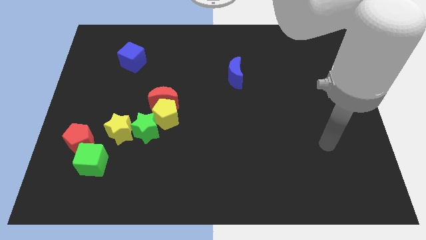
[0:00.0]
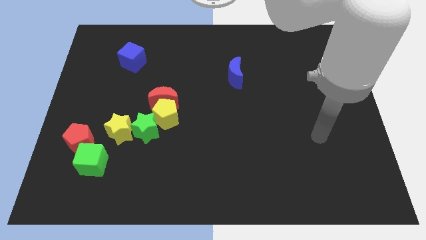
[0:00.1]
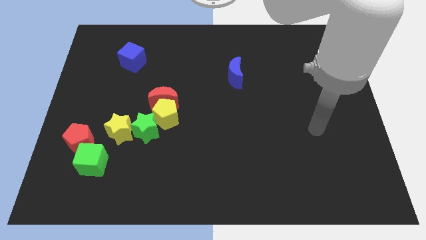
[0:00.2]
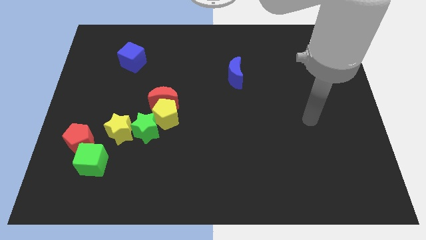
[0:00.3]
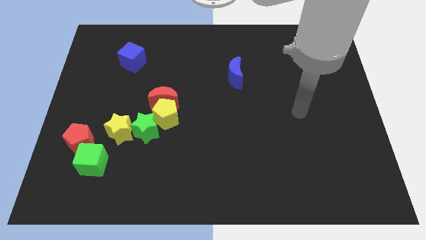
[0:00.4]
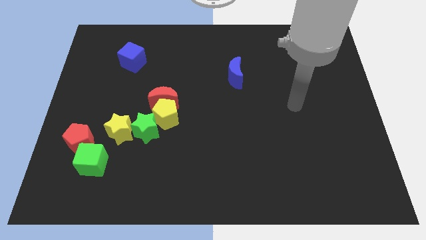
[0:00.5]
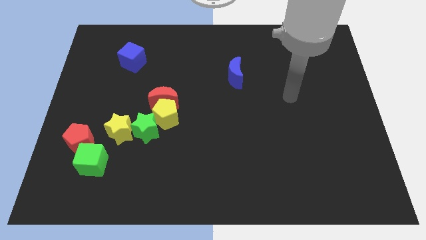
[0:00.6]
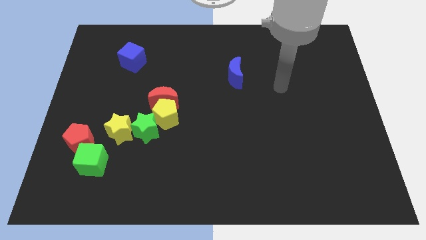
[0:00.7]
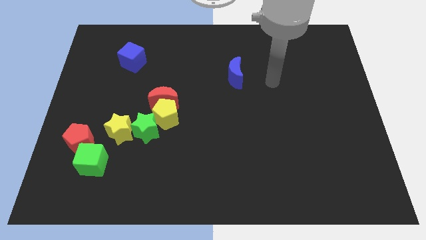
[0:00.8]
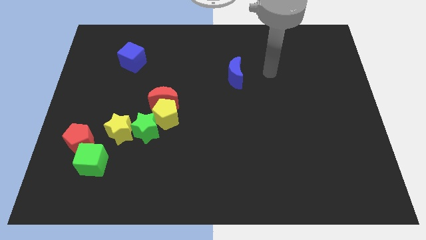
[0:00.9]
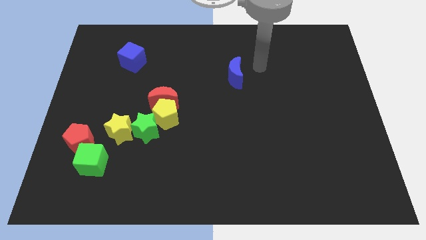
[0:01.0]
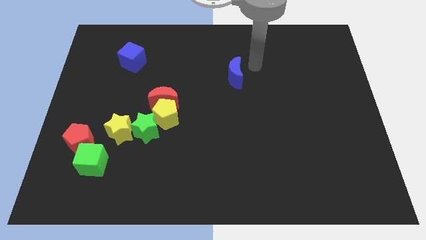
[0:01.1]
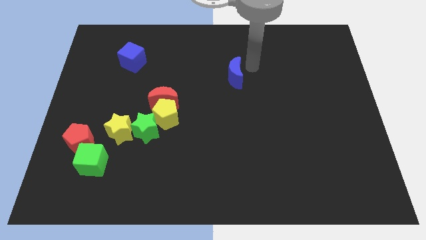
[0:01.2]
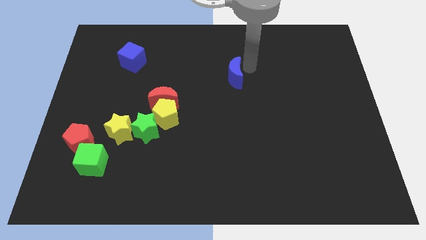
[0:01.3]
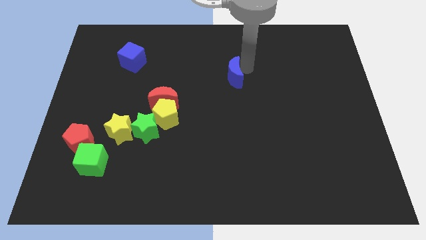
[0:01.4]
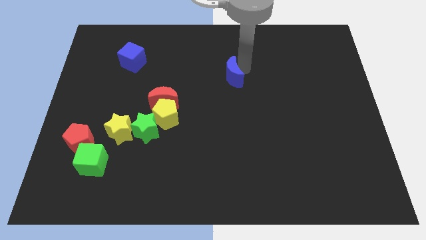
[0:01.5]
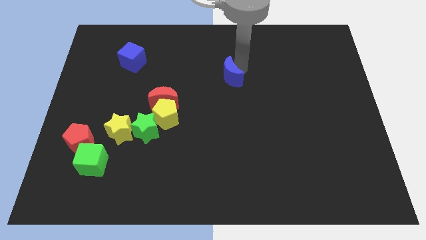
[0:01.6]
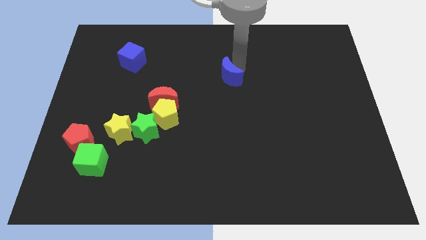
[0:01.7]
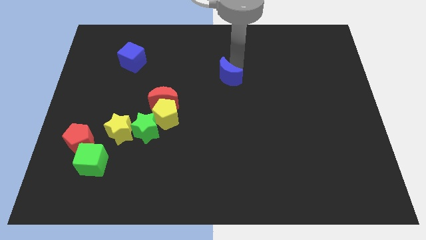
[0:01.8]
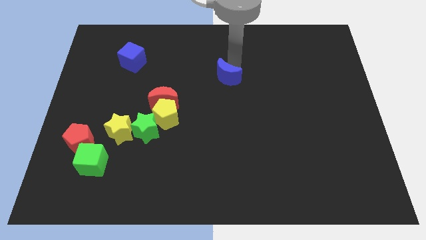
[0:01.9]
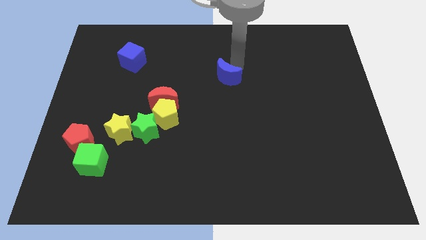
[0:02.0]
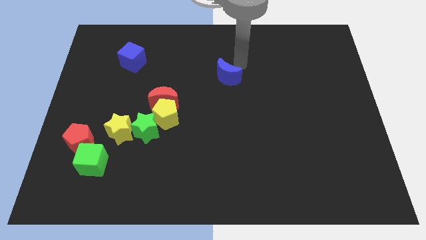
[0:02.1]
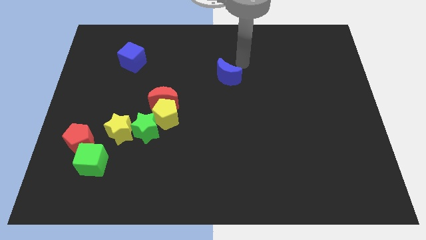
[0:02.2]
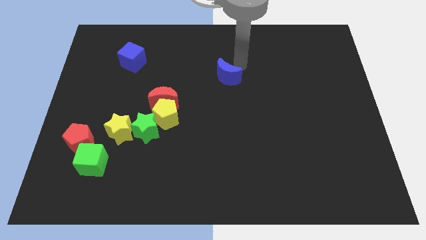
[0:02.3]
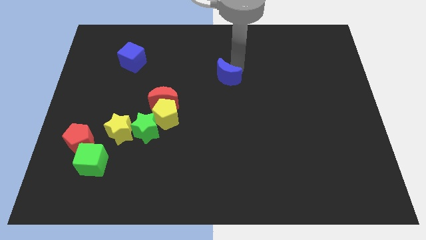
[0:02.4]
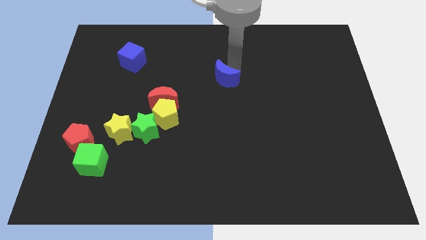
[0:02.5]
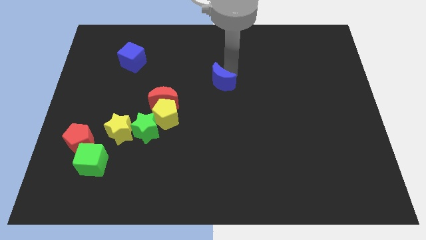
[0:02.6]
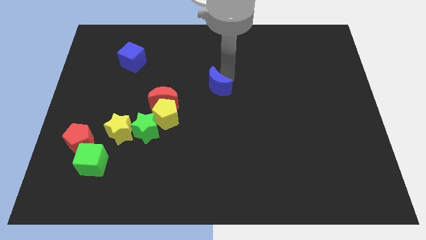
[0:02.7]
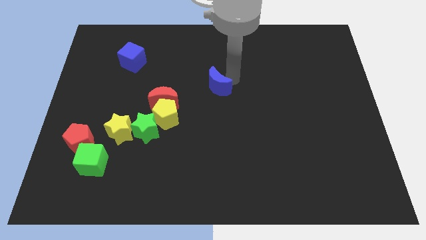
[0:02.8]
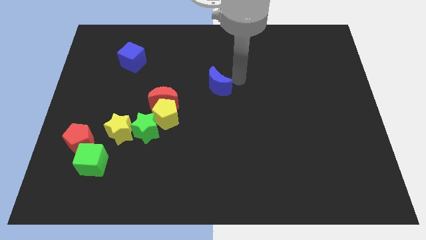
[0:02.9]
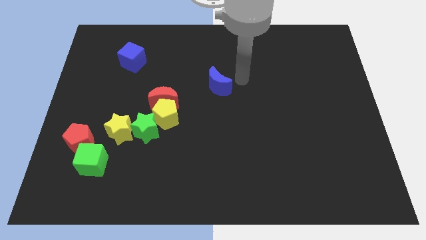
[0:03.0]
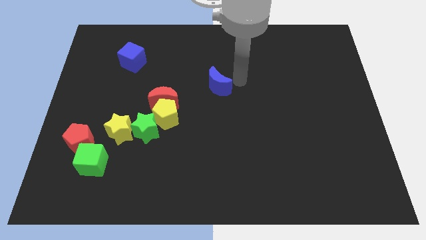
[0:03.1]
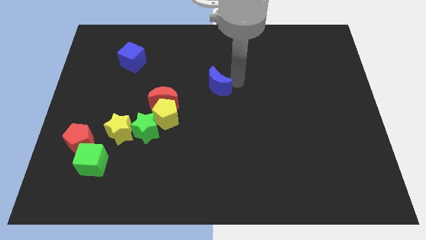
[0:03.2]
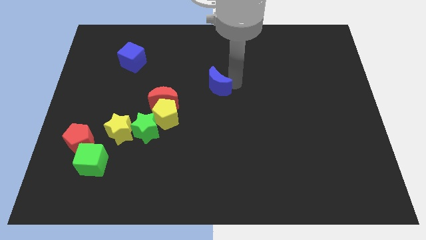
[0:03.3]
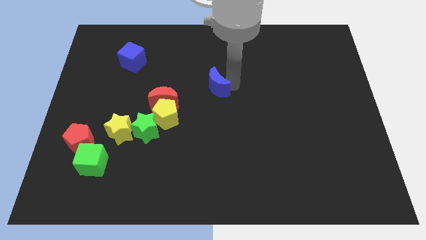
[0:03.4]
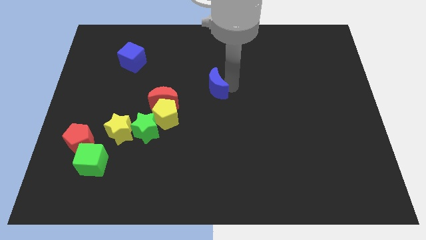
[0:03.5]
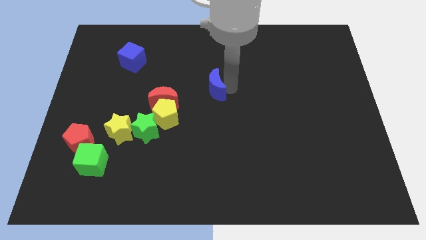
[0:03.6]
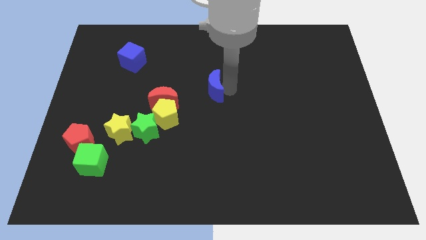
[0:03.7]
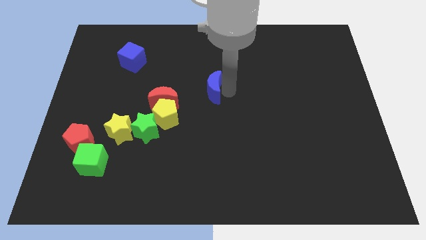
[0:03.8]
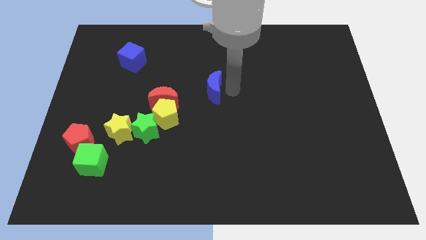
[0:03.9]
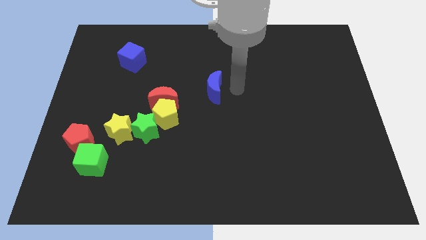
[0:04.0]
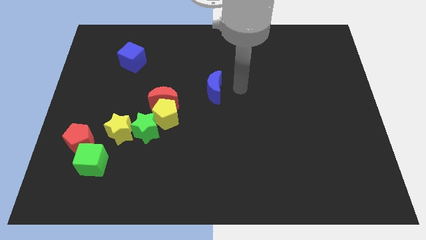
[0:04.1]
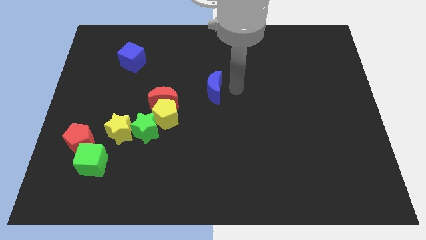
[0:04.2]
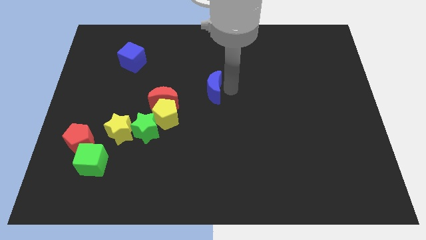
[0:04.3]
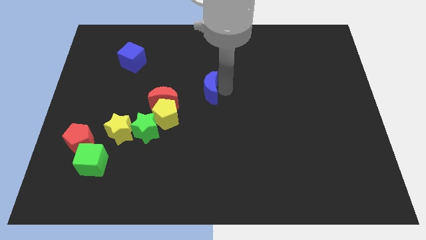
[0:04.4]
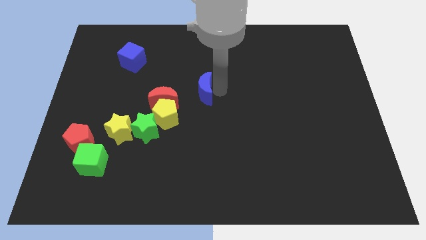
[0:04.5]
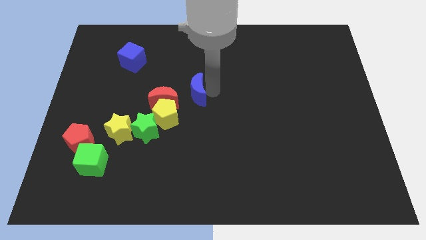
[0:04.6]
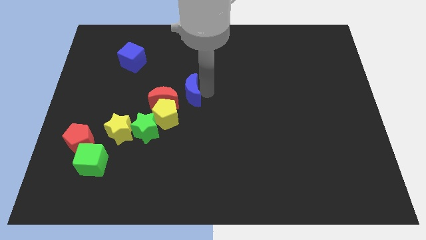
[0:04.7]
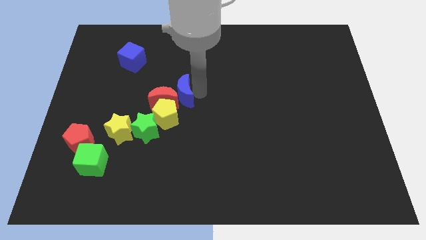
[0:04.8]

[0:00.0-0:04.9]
move the blue moon towards the red moon

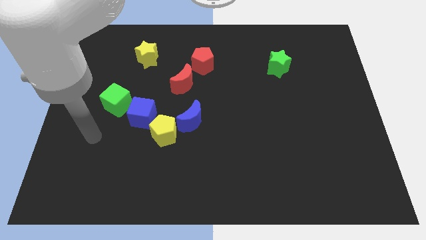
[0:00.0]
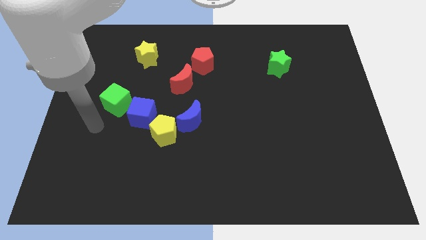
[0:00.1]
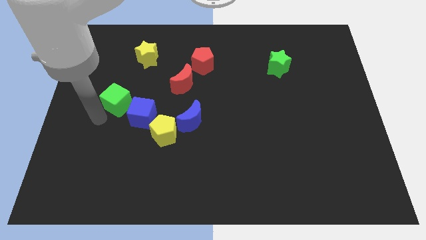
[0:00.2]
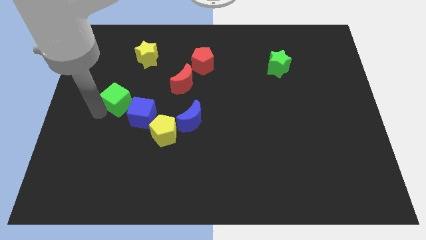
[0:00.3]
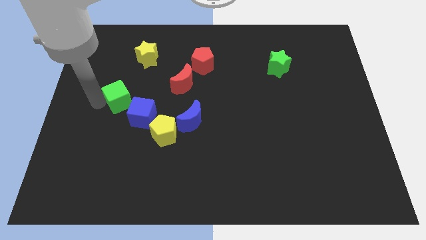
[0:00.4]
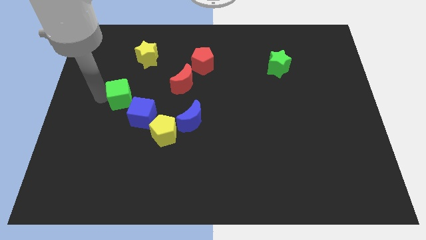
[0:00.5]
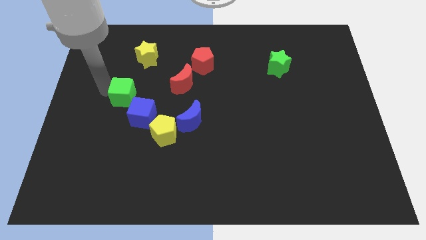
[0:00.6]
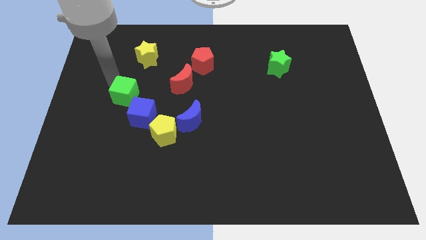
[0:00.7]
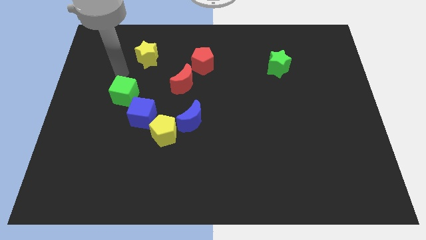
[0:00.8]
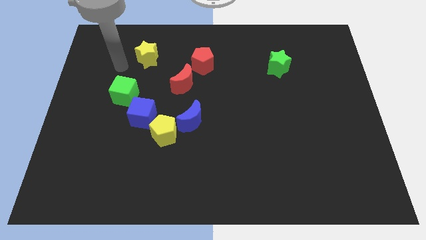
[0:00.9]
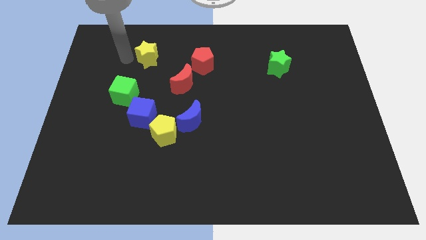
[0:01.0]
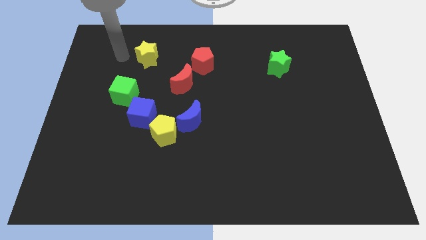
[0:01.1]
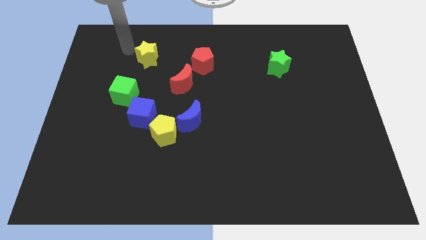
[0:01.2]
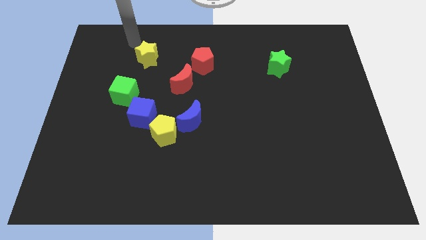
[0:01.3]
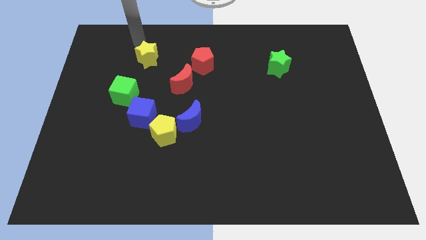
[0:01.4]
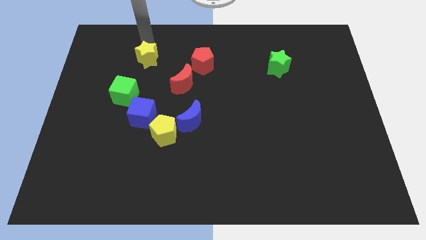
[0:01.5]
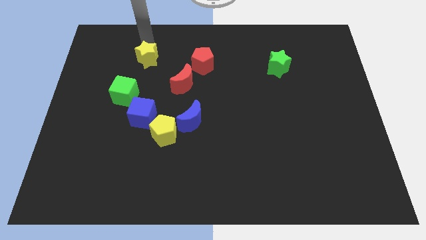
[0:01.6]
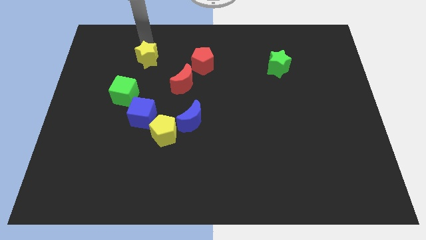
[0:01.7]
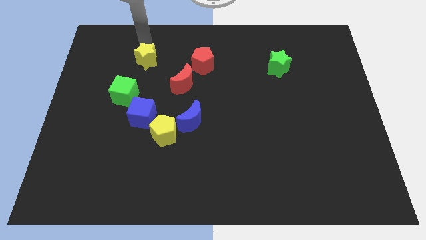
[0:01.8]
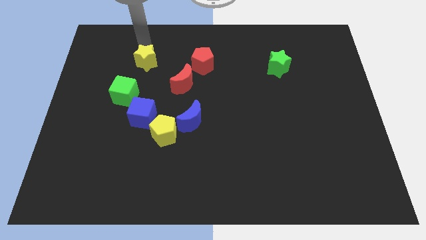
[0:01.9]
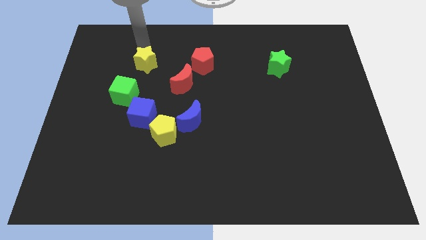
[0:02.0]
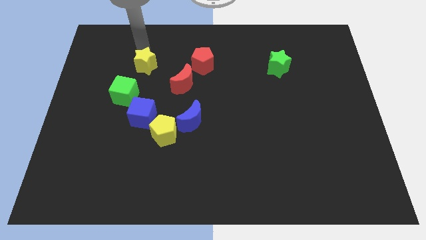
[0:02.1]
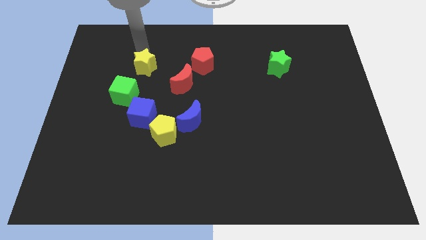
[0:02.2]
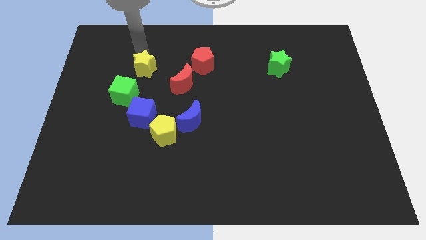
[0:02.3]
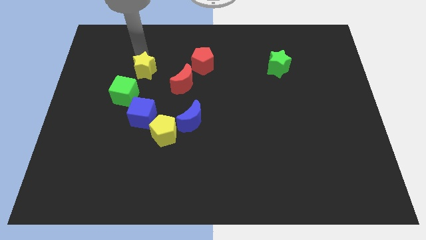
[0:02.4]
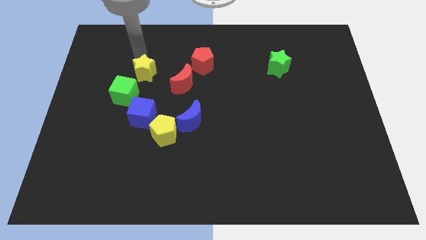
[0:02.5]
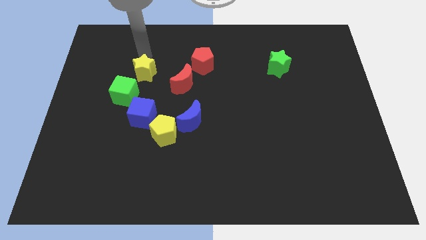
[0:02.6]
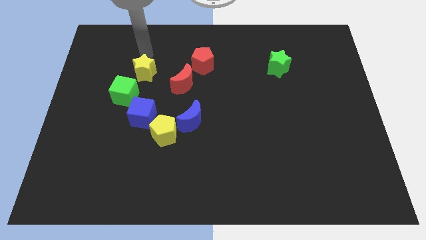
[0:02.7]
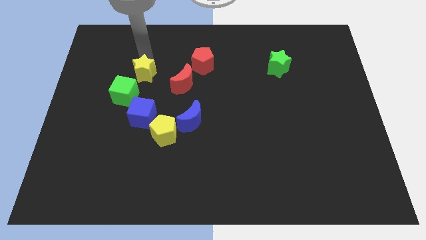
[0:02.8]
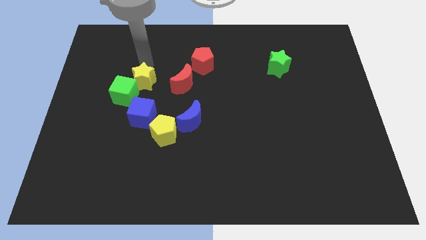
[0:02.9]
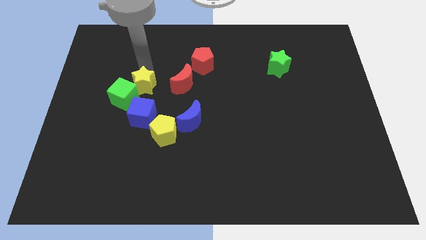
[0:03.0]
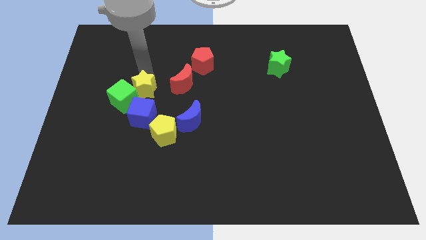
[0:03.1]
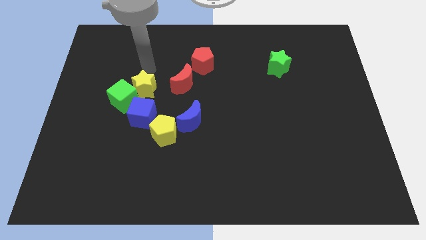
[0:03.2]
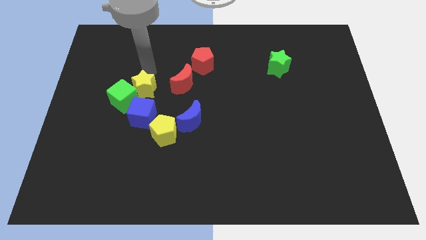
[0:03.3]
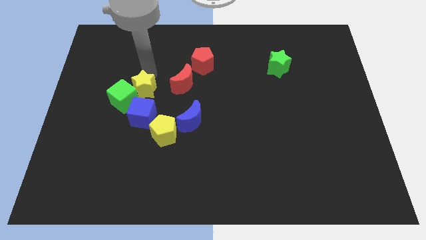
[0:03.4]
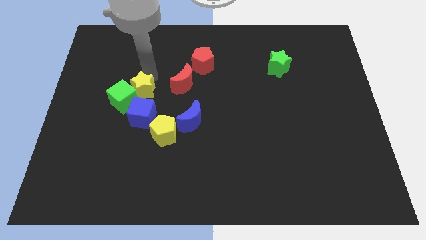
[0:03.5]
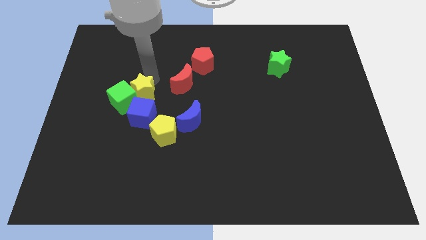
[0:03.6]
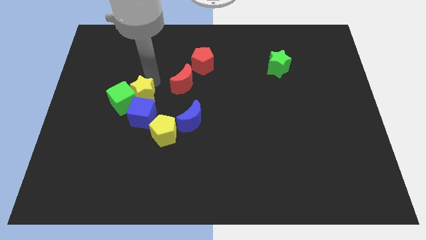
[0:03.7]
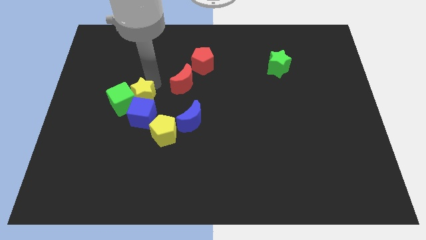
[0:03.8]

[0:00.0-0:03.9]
push the yellow star next to the blue cube
